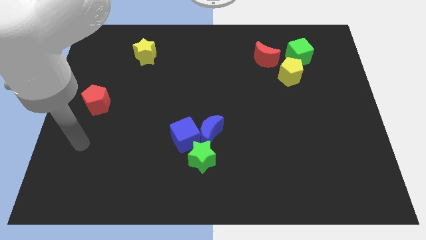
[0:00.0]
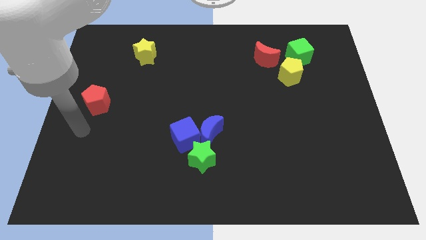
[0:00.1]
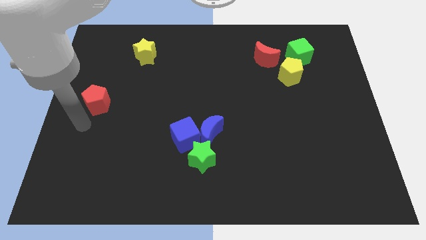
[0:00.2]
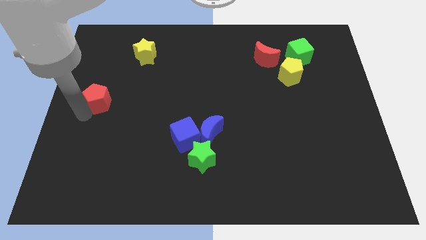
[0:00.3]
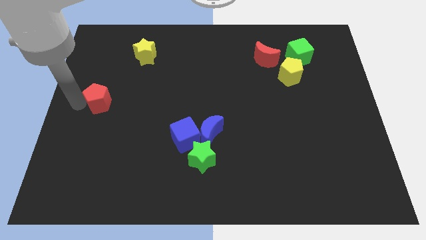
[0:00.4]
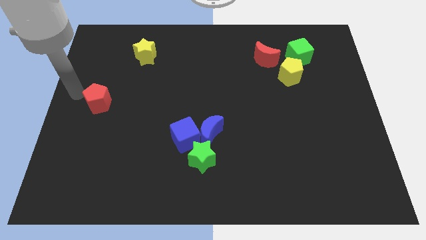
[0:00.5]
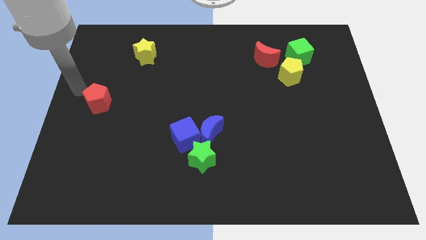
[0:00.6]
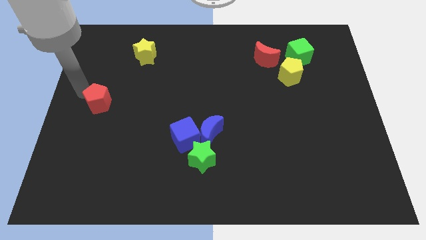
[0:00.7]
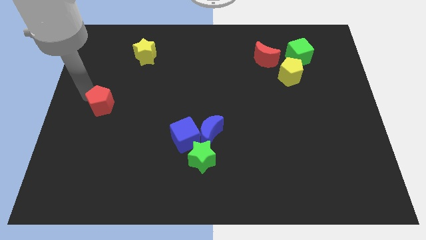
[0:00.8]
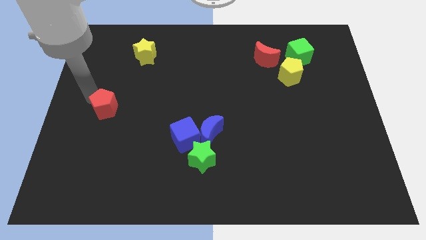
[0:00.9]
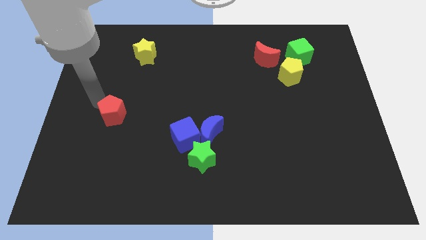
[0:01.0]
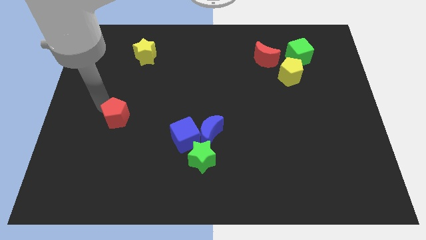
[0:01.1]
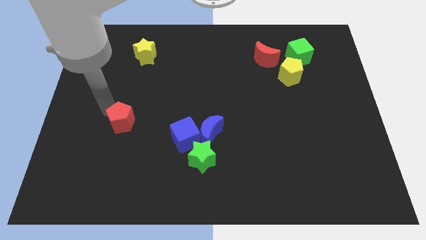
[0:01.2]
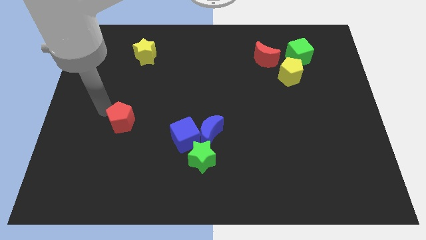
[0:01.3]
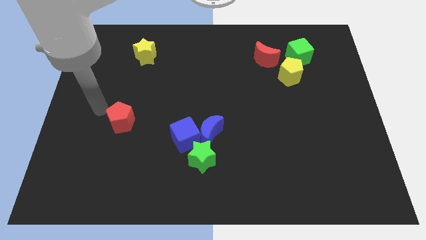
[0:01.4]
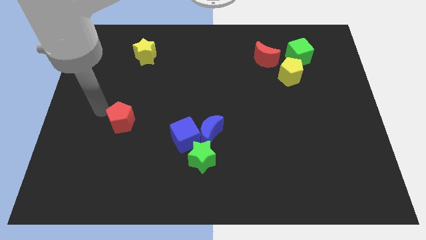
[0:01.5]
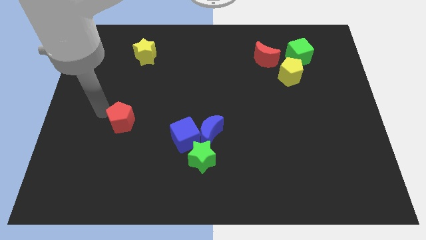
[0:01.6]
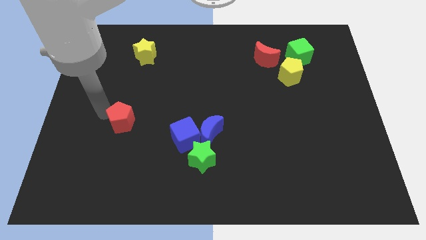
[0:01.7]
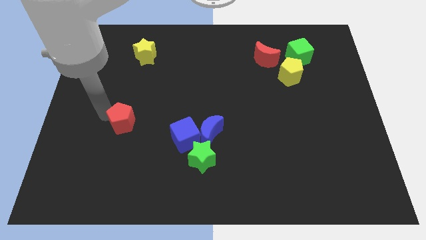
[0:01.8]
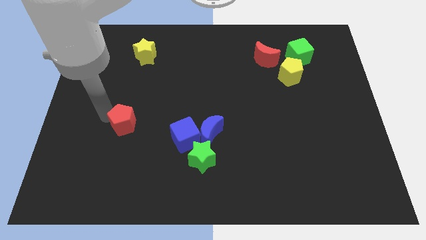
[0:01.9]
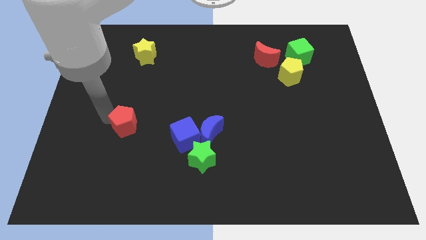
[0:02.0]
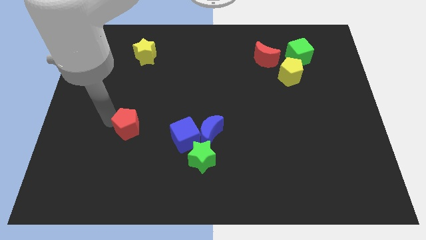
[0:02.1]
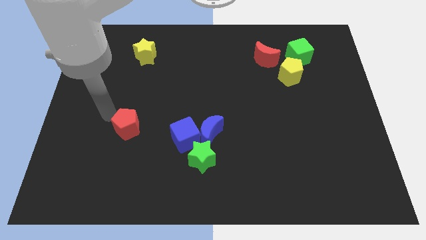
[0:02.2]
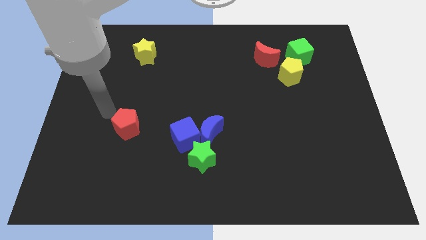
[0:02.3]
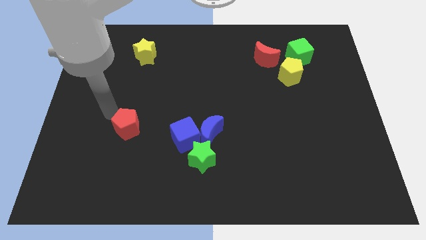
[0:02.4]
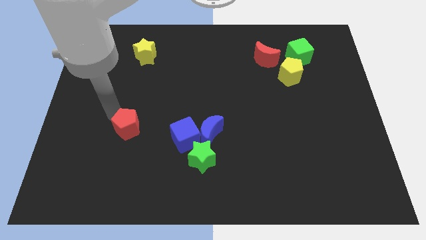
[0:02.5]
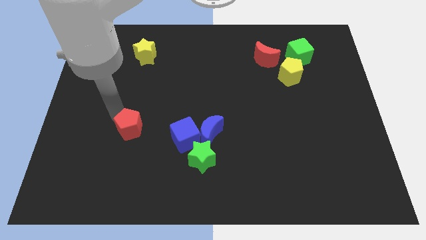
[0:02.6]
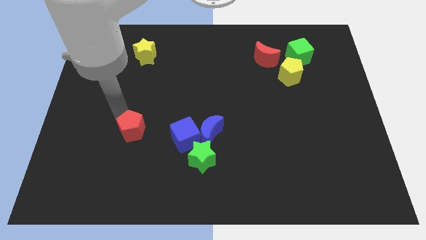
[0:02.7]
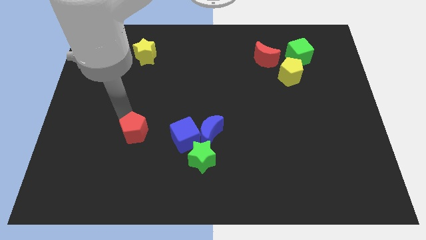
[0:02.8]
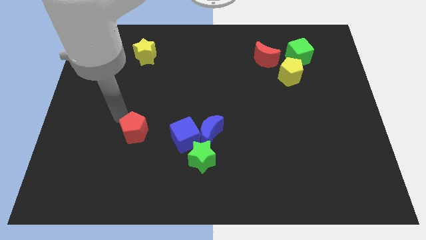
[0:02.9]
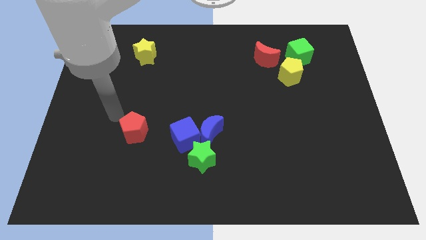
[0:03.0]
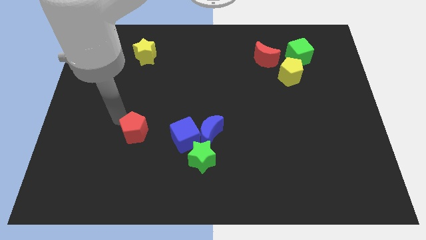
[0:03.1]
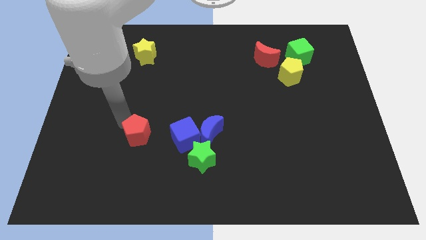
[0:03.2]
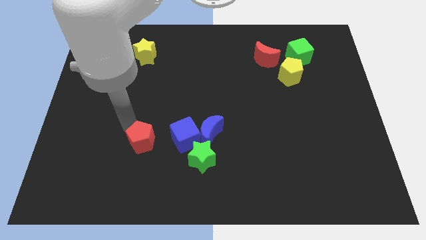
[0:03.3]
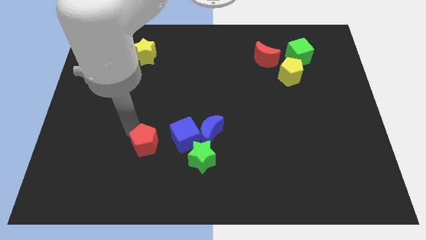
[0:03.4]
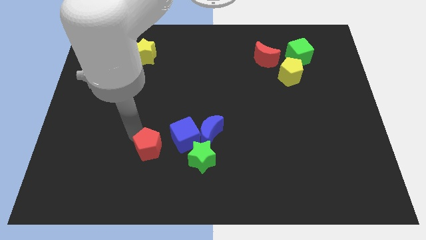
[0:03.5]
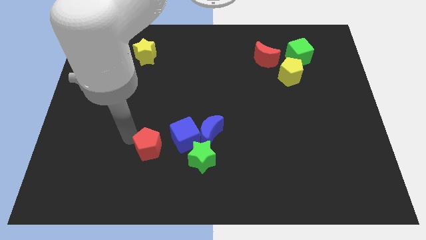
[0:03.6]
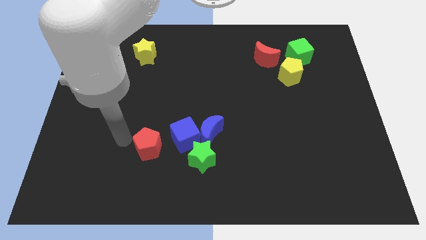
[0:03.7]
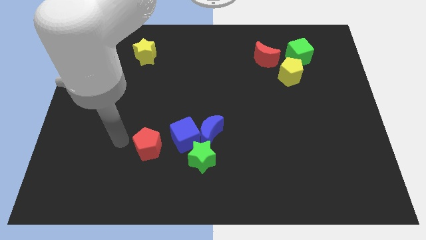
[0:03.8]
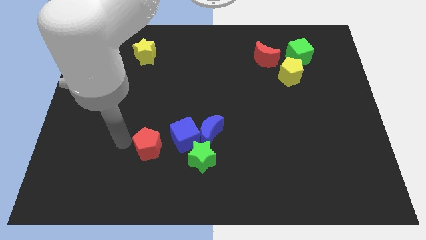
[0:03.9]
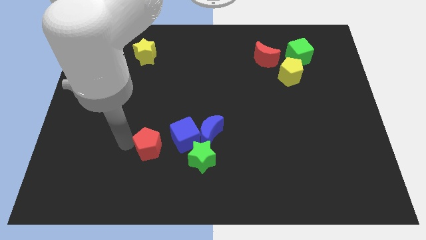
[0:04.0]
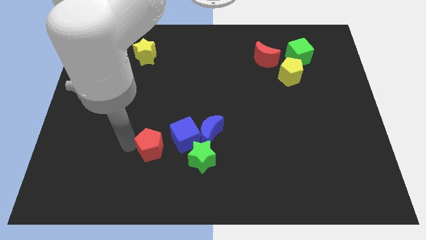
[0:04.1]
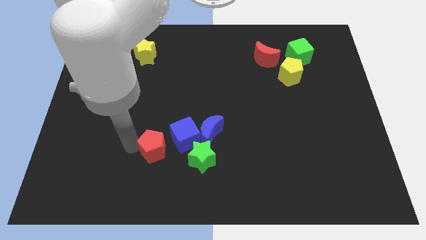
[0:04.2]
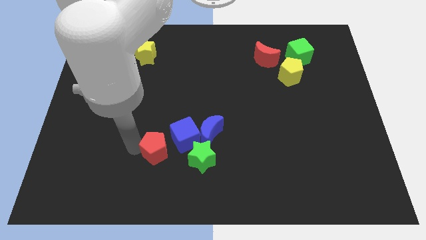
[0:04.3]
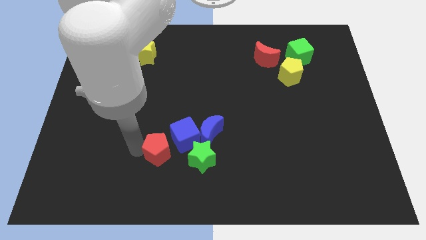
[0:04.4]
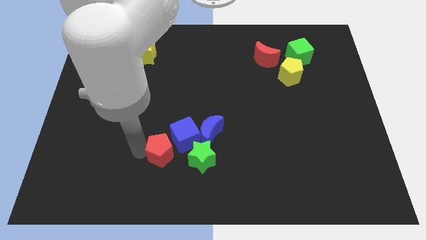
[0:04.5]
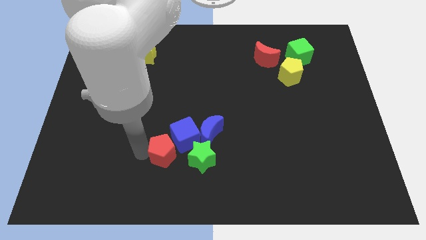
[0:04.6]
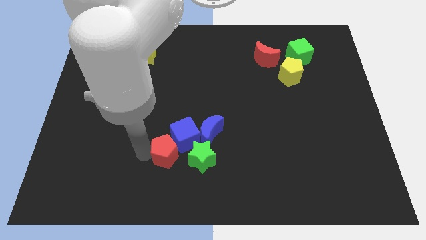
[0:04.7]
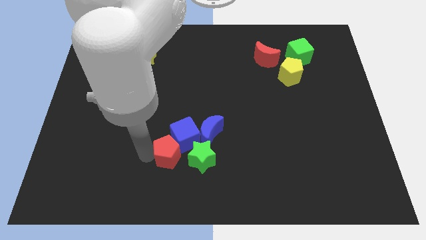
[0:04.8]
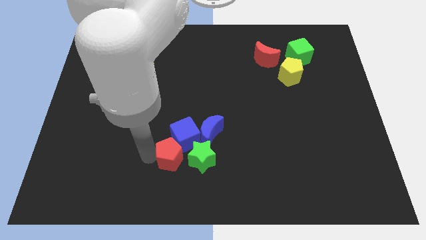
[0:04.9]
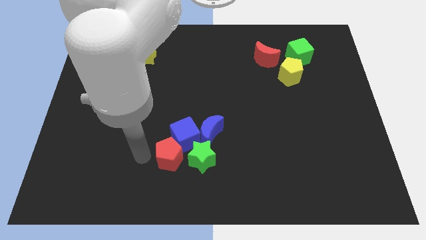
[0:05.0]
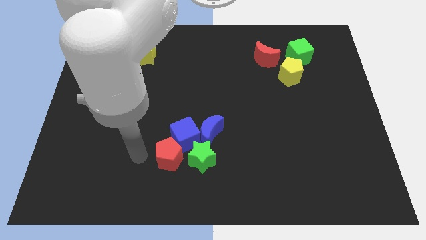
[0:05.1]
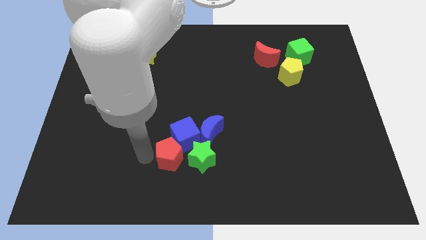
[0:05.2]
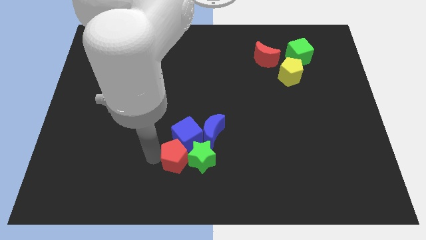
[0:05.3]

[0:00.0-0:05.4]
slide the red pentagon towards the green star

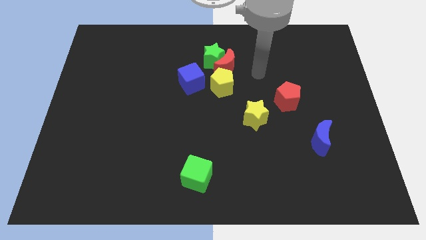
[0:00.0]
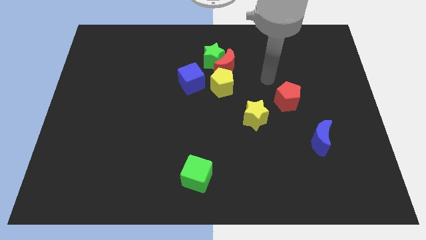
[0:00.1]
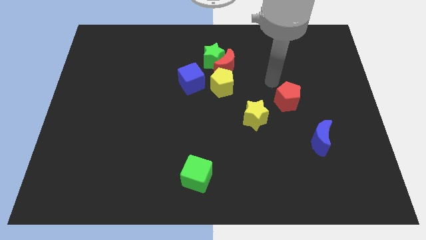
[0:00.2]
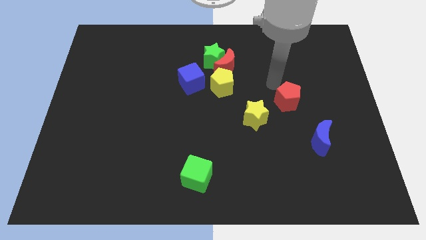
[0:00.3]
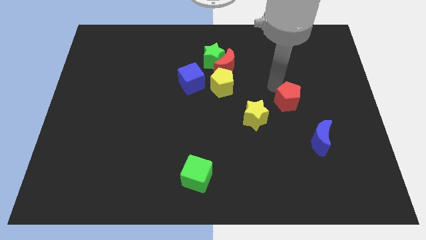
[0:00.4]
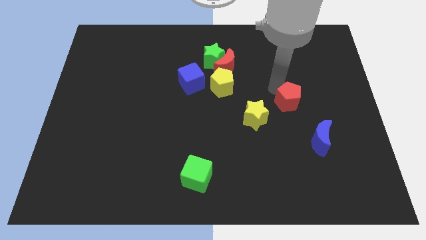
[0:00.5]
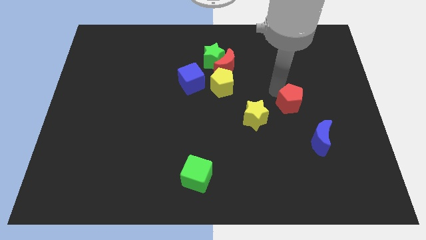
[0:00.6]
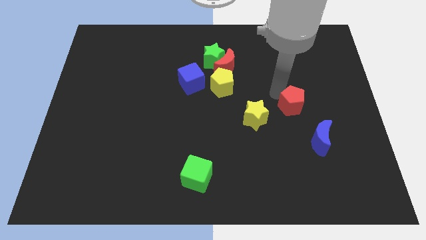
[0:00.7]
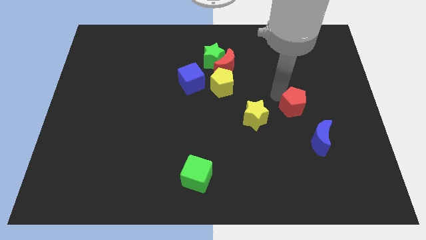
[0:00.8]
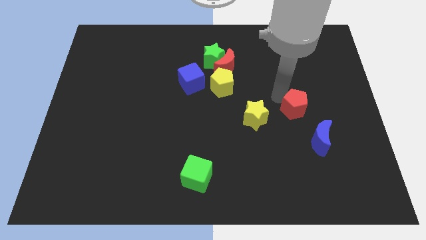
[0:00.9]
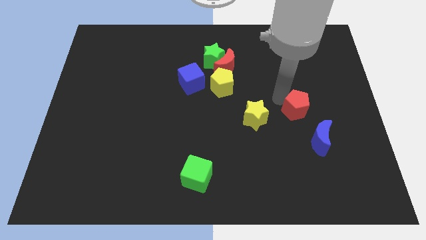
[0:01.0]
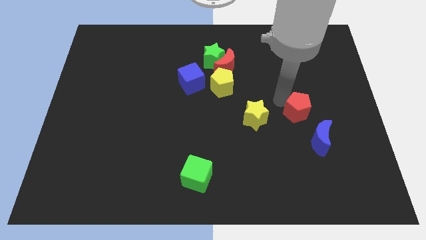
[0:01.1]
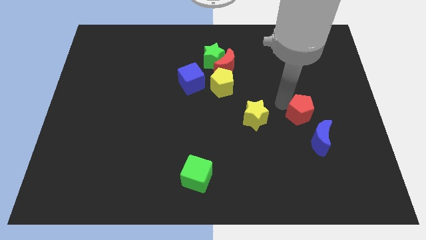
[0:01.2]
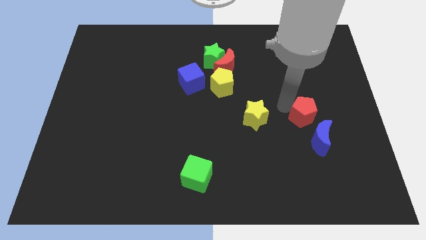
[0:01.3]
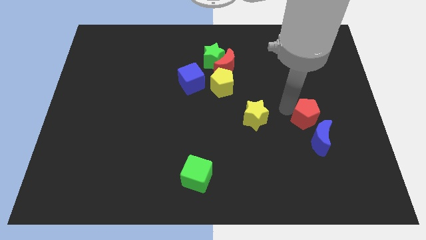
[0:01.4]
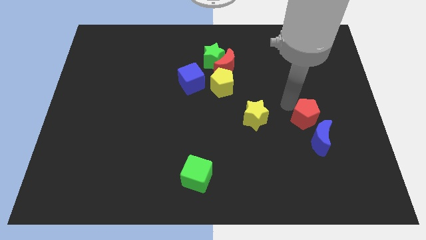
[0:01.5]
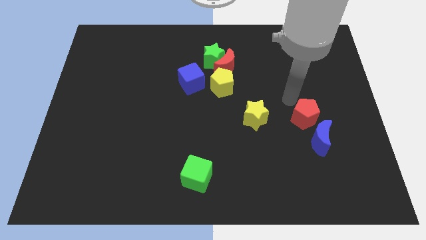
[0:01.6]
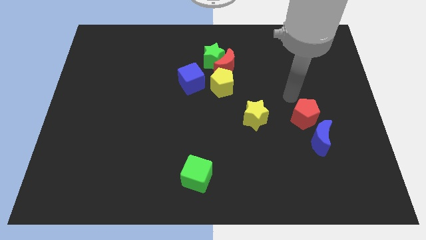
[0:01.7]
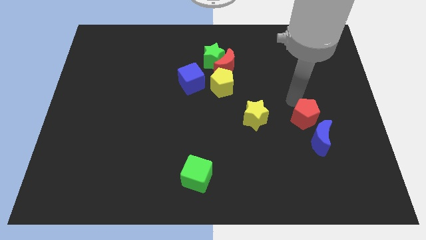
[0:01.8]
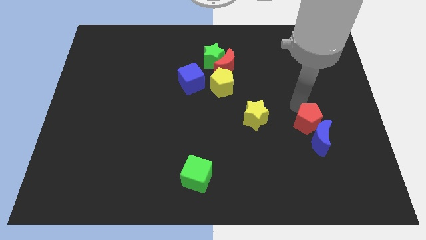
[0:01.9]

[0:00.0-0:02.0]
move the red pentagon close to the blue moon
